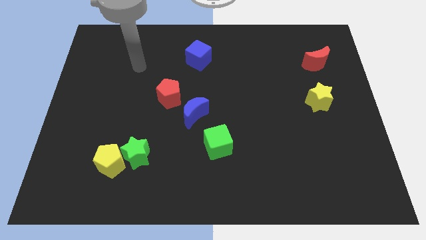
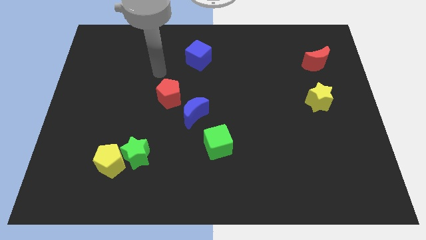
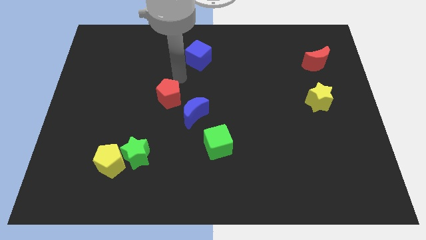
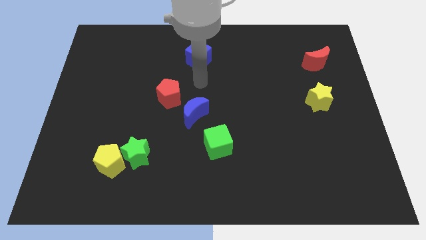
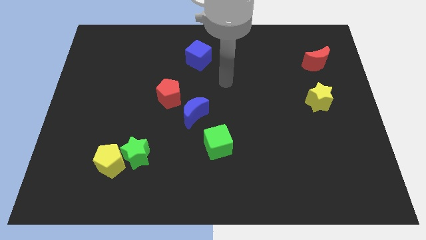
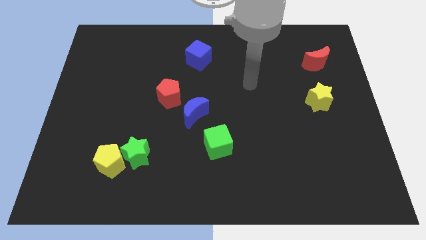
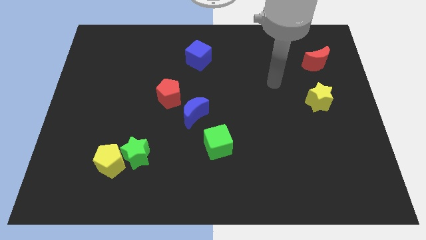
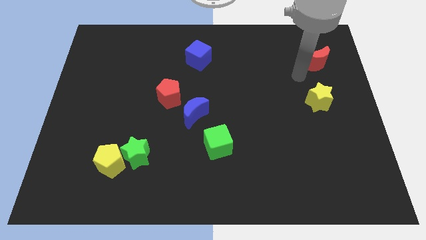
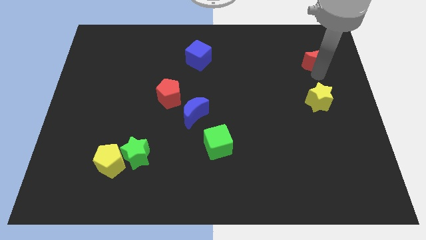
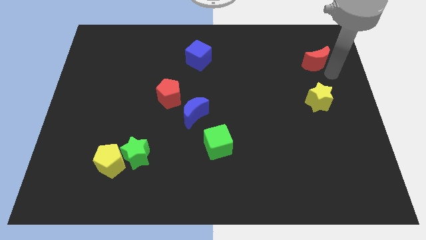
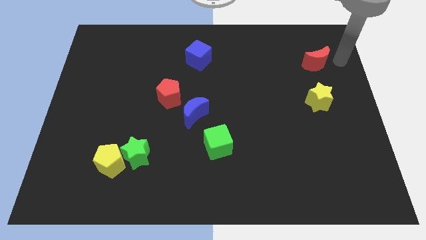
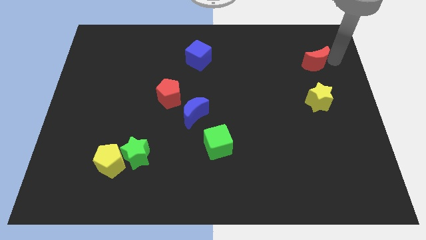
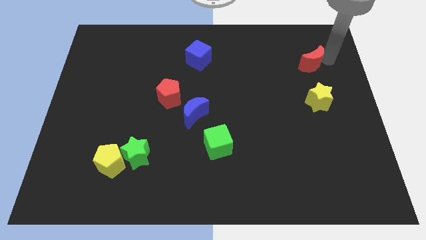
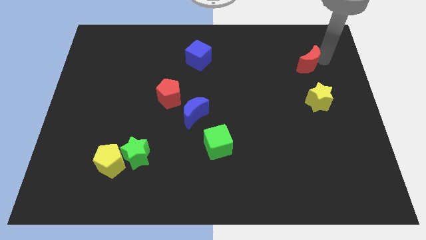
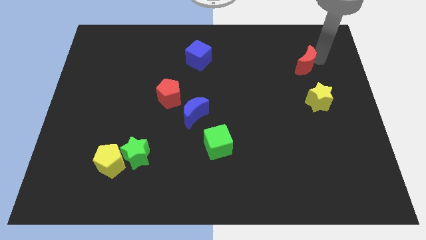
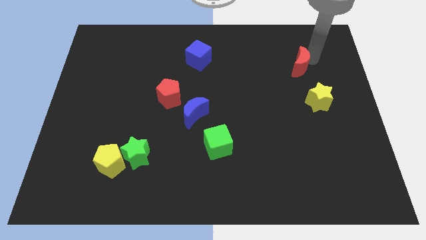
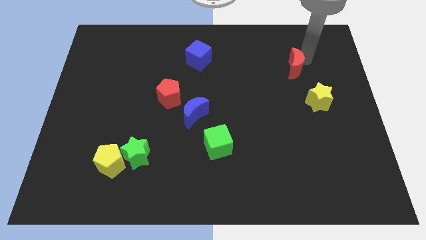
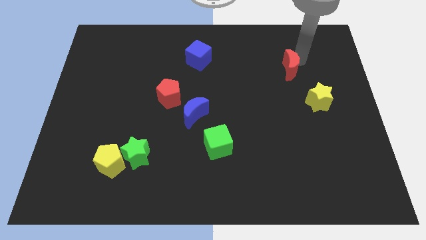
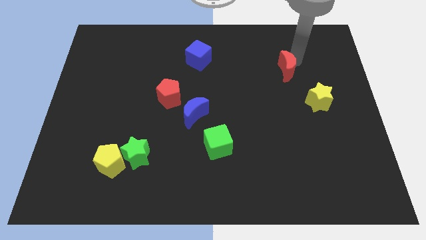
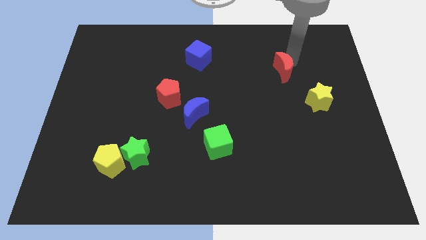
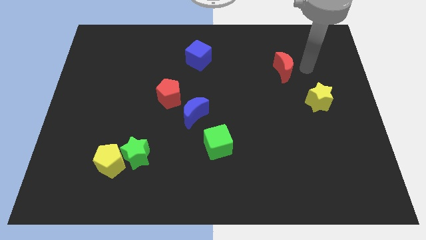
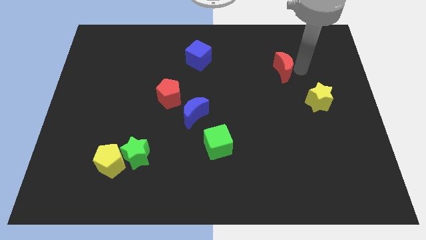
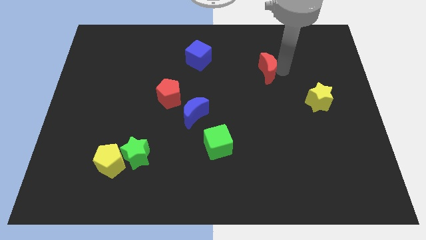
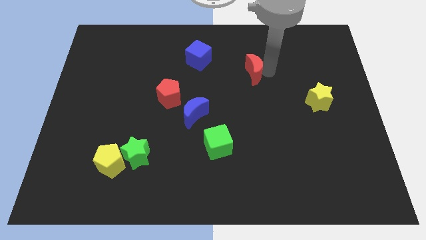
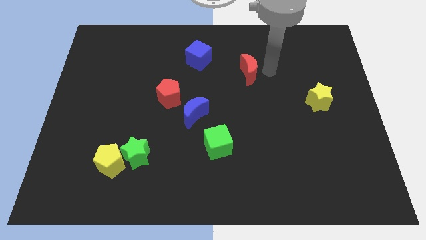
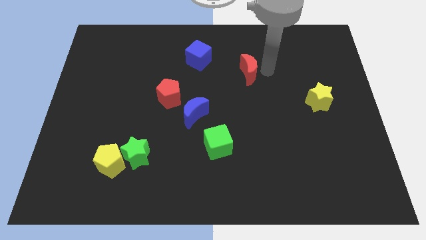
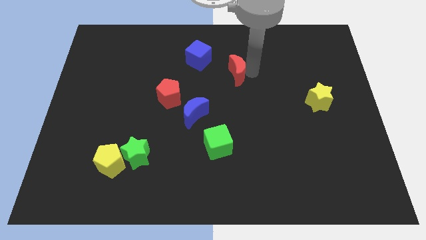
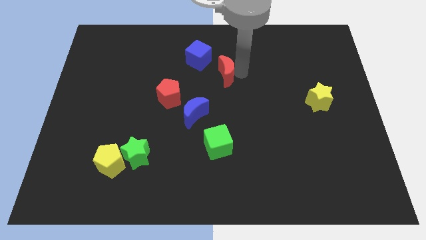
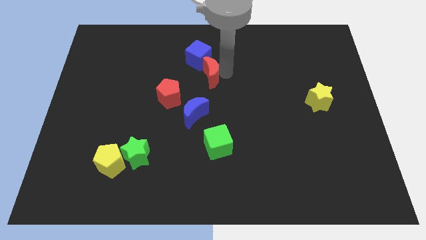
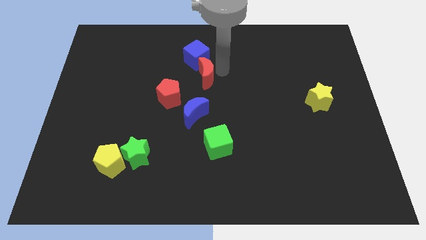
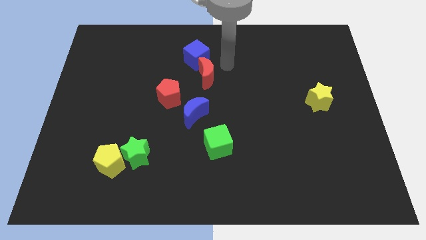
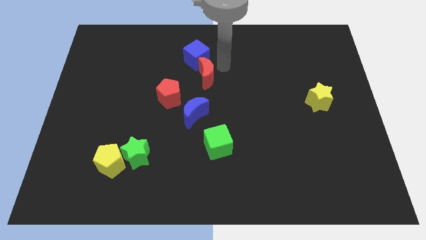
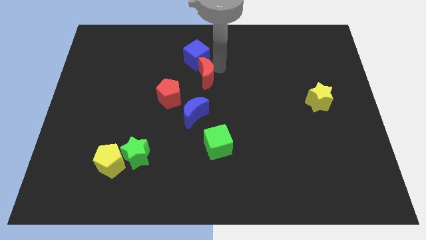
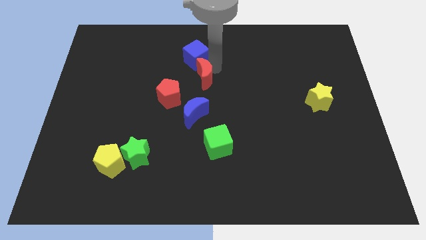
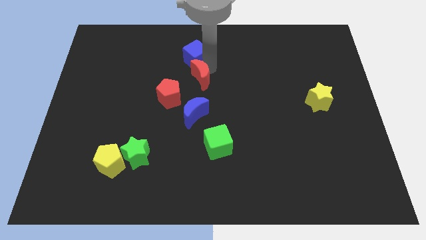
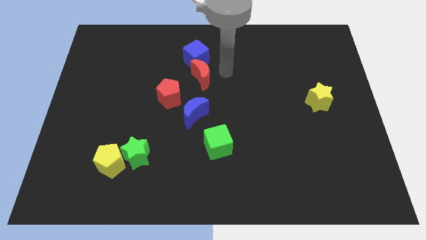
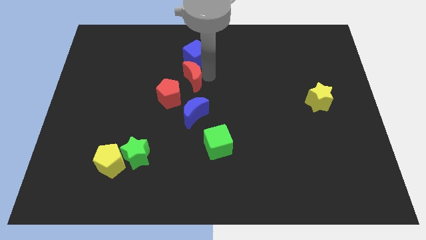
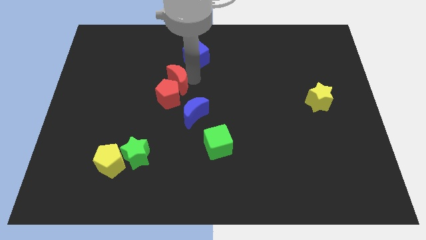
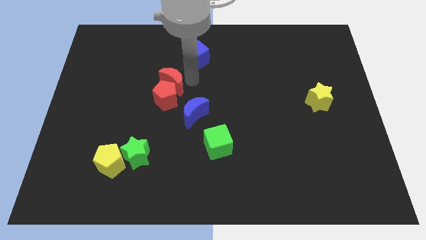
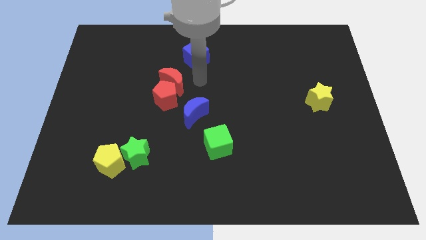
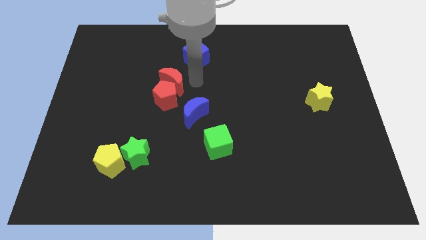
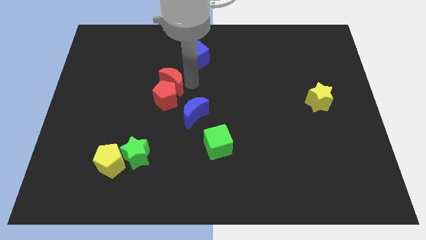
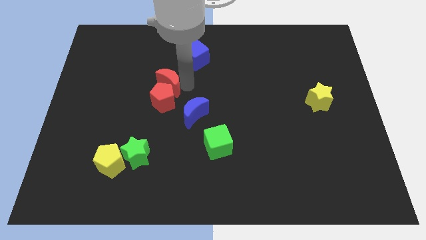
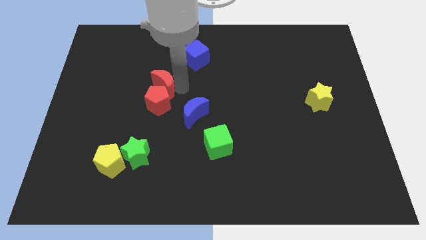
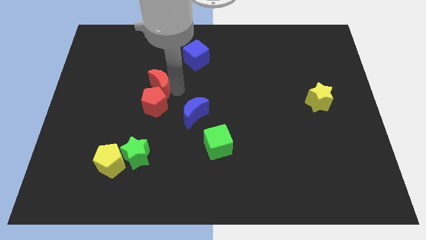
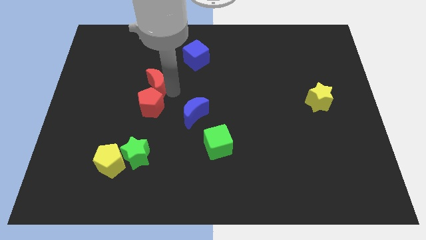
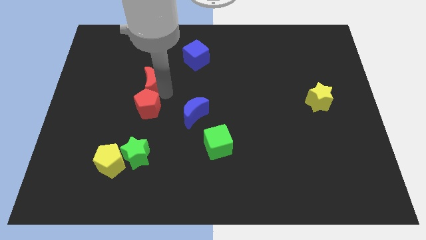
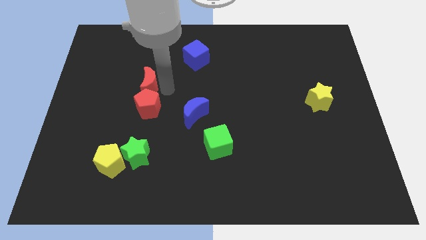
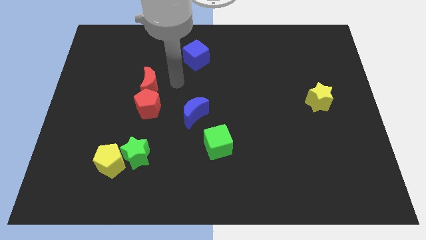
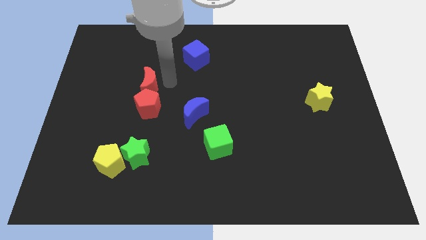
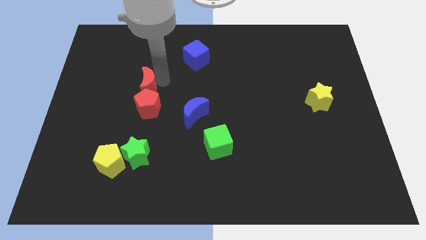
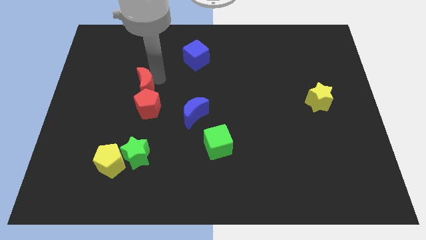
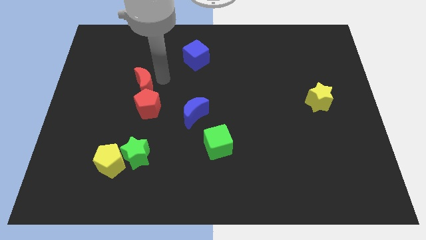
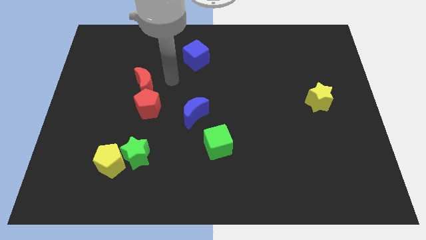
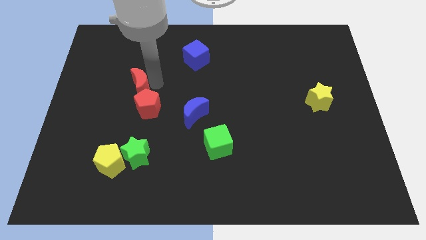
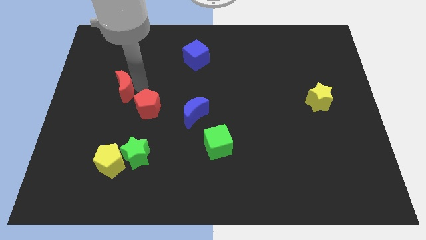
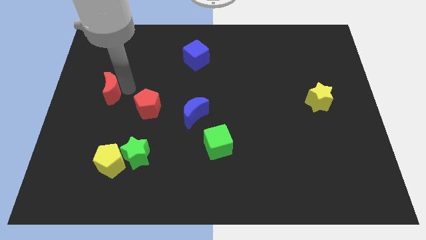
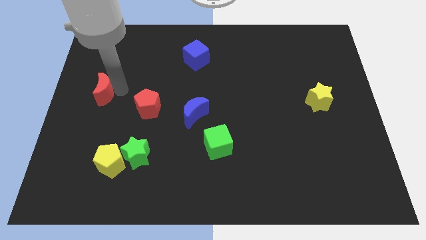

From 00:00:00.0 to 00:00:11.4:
put the red moon to the left side of the board
